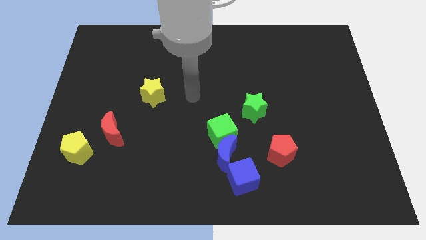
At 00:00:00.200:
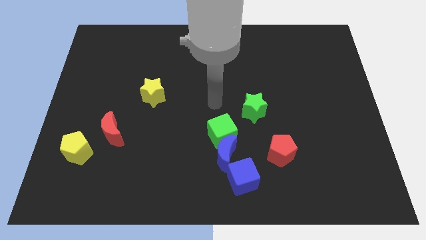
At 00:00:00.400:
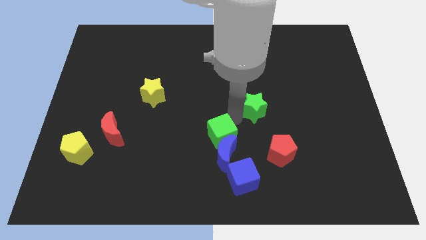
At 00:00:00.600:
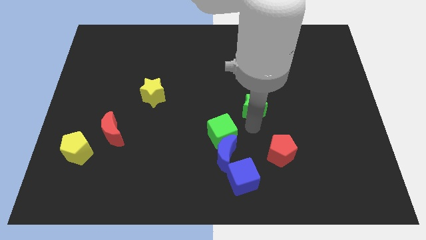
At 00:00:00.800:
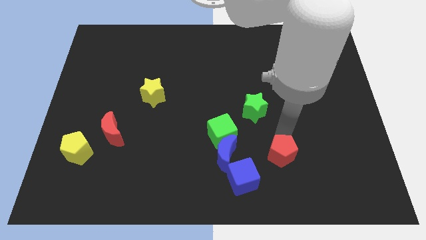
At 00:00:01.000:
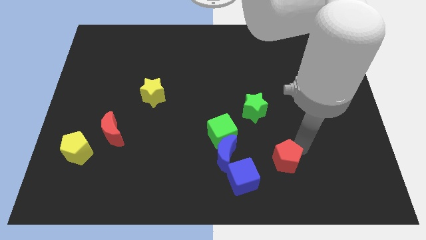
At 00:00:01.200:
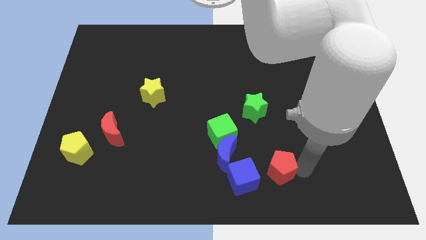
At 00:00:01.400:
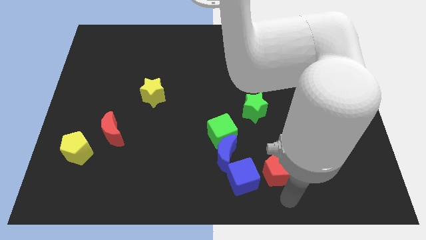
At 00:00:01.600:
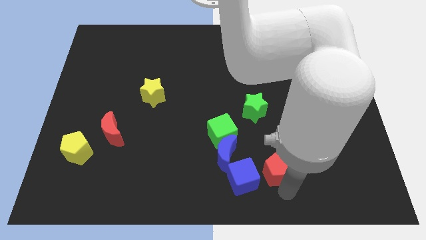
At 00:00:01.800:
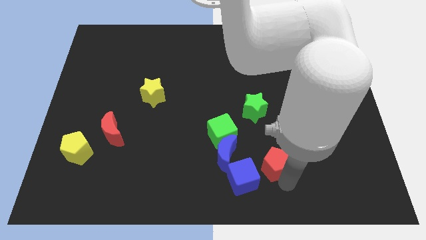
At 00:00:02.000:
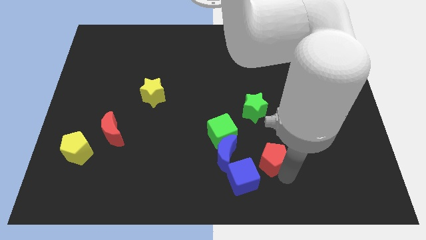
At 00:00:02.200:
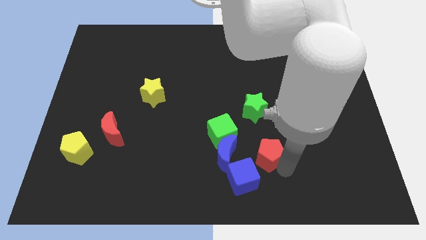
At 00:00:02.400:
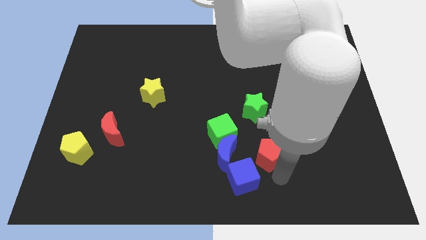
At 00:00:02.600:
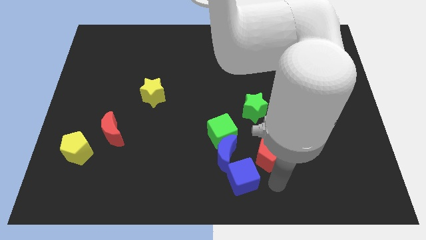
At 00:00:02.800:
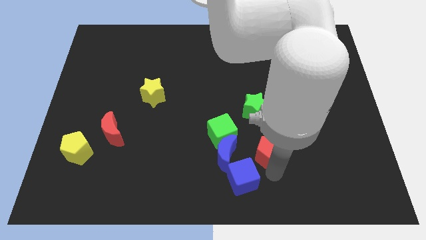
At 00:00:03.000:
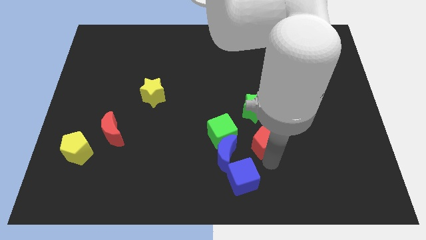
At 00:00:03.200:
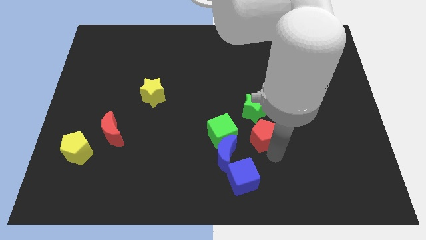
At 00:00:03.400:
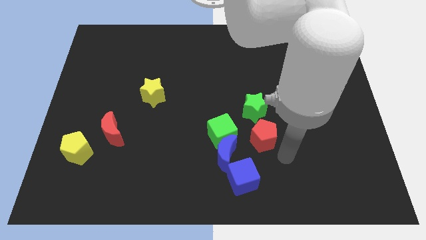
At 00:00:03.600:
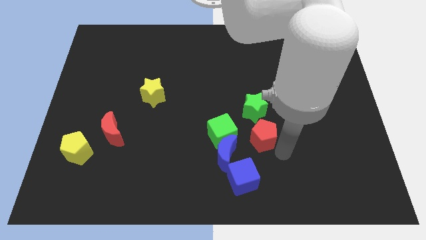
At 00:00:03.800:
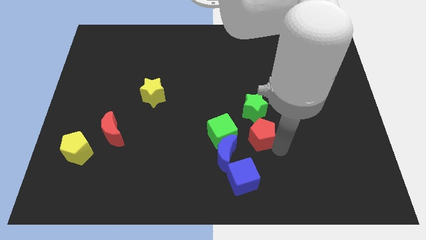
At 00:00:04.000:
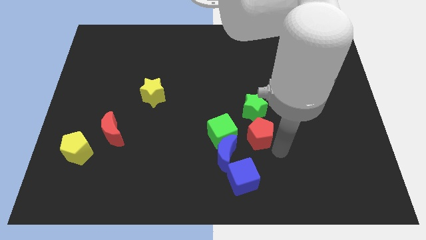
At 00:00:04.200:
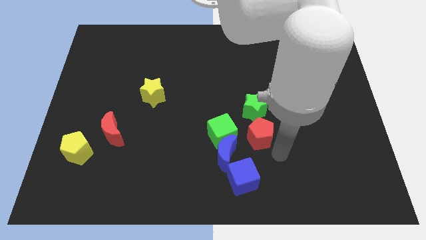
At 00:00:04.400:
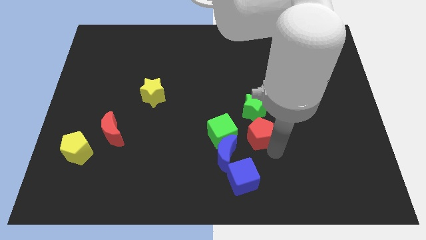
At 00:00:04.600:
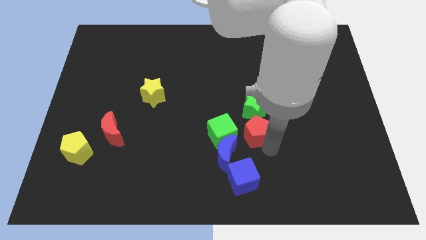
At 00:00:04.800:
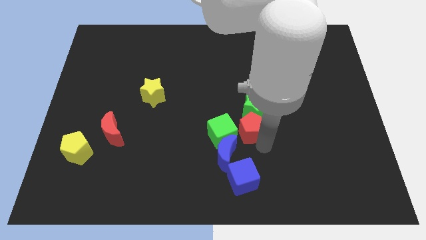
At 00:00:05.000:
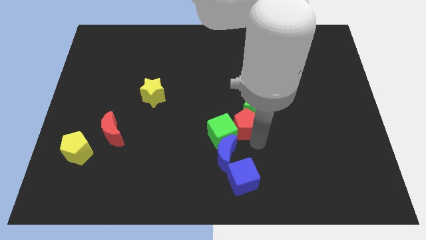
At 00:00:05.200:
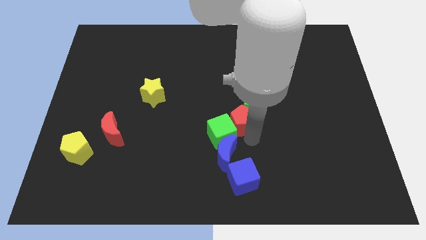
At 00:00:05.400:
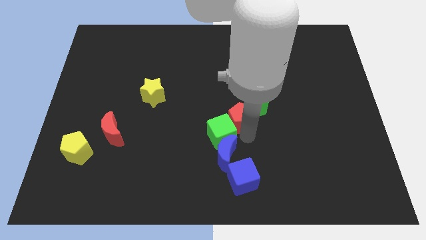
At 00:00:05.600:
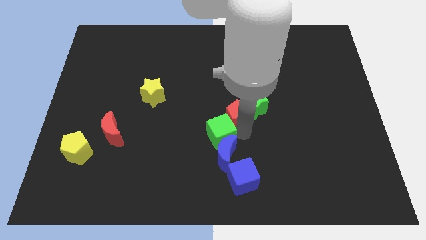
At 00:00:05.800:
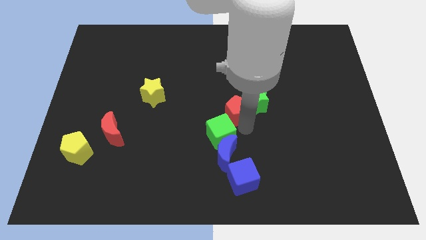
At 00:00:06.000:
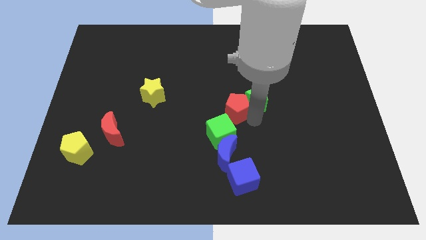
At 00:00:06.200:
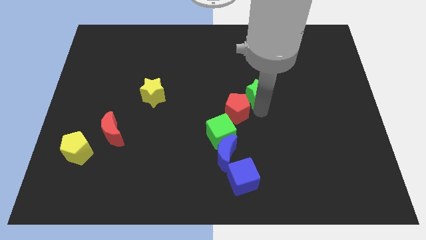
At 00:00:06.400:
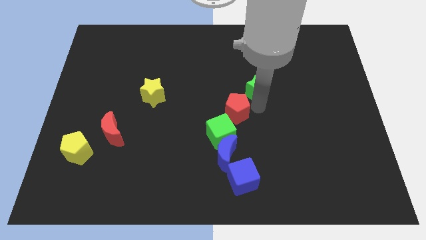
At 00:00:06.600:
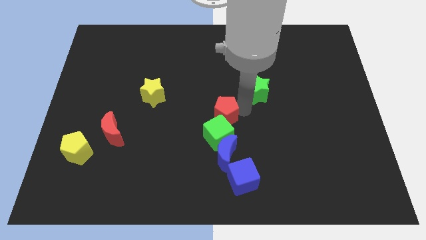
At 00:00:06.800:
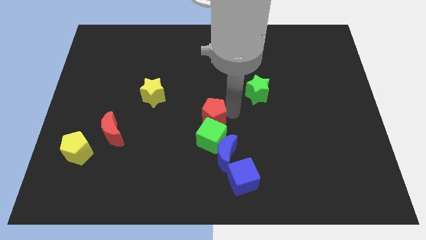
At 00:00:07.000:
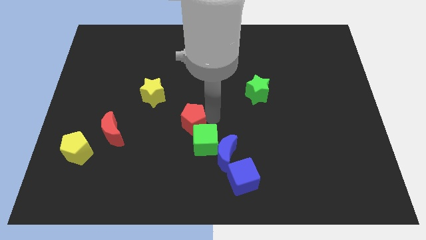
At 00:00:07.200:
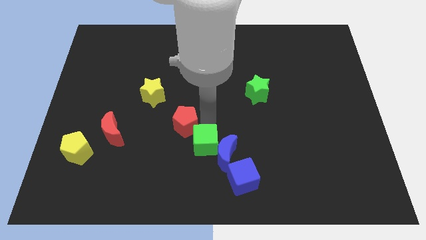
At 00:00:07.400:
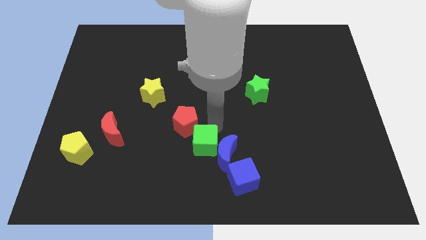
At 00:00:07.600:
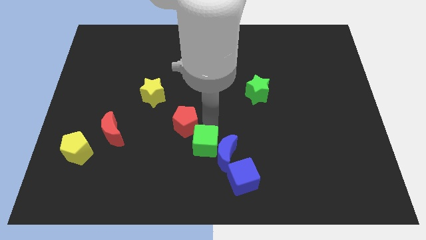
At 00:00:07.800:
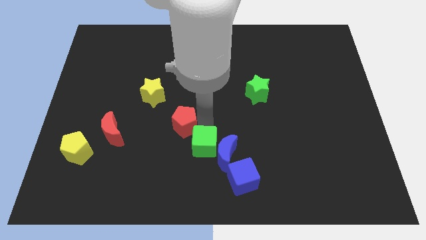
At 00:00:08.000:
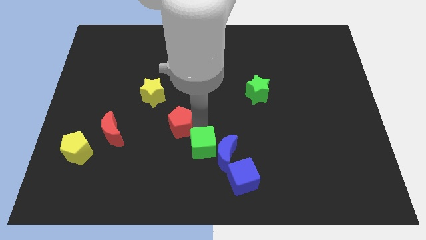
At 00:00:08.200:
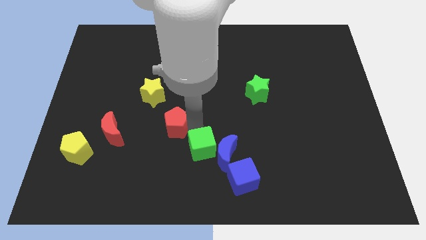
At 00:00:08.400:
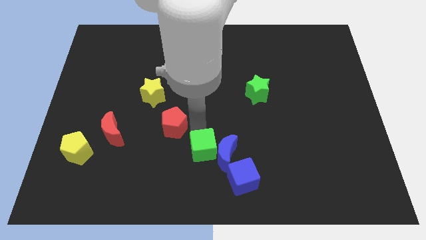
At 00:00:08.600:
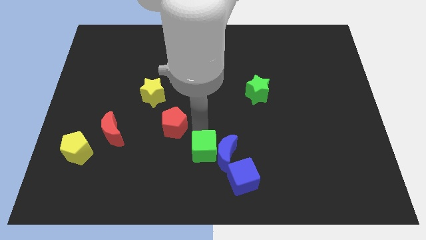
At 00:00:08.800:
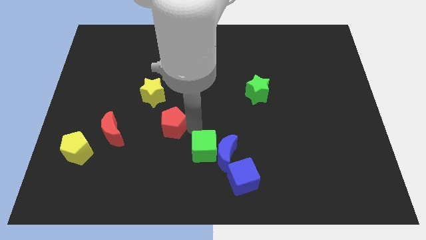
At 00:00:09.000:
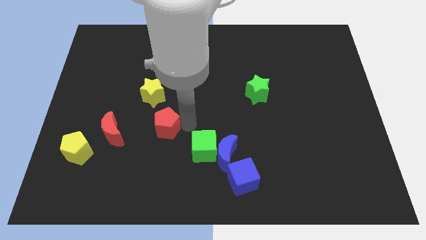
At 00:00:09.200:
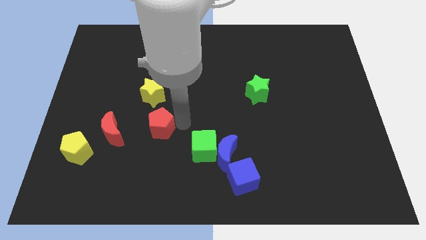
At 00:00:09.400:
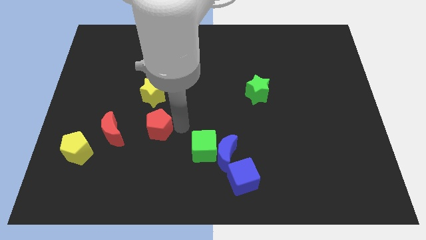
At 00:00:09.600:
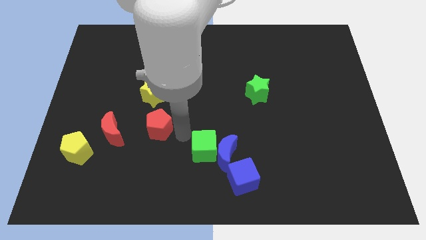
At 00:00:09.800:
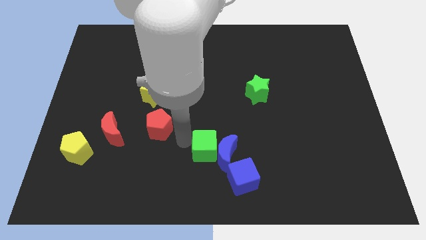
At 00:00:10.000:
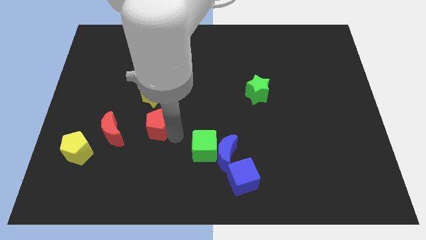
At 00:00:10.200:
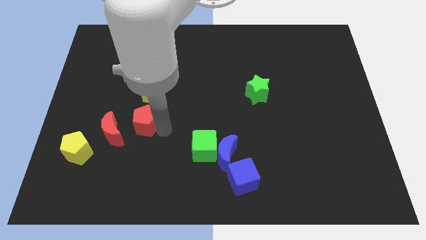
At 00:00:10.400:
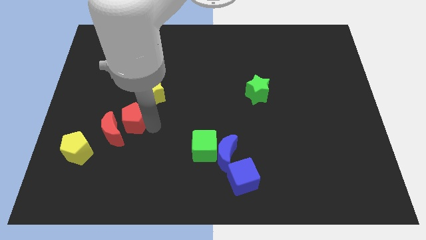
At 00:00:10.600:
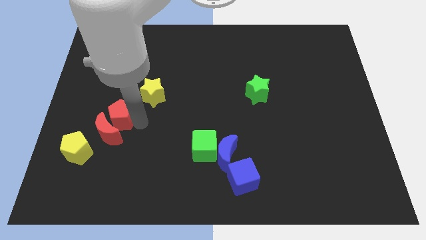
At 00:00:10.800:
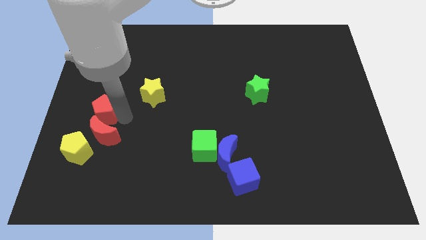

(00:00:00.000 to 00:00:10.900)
put the red pentagon to the top side of the yellow pentagon
